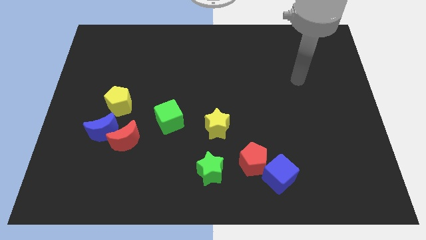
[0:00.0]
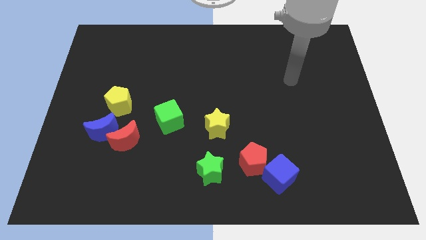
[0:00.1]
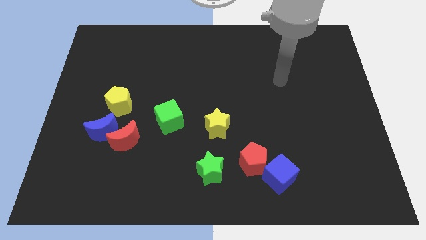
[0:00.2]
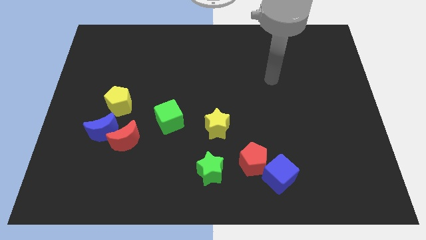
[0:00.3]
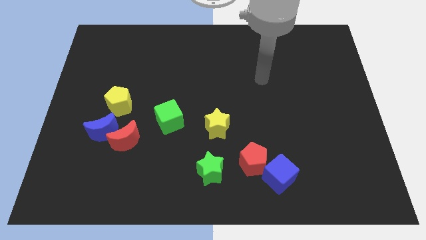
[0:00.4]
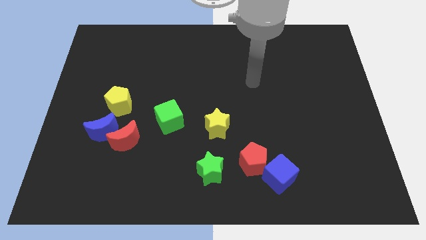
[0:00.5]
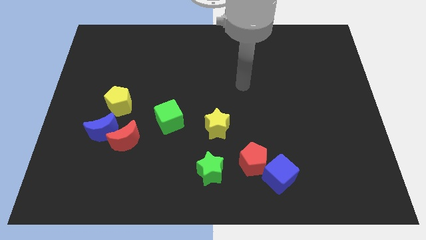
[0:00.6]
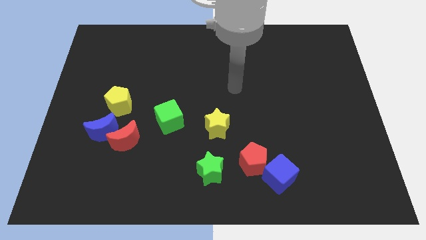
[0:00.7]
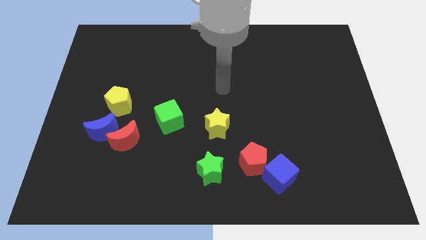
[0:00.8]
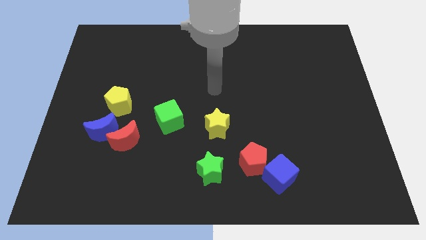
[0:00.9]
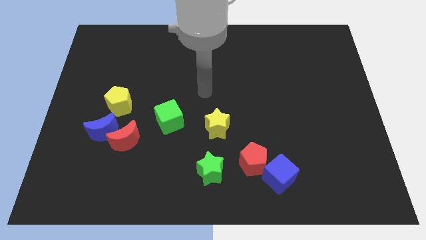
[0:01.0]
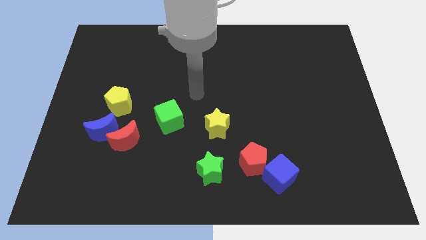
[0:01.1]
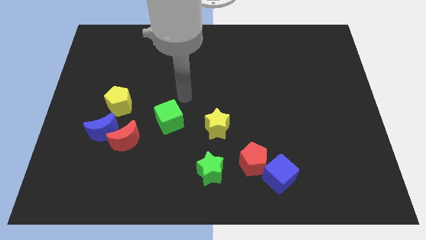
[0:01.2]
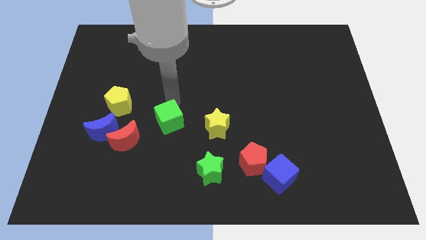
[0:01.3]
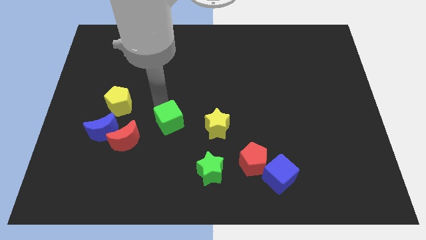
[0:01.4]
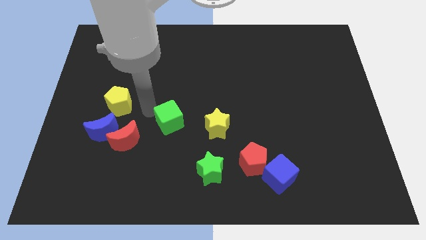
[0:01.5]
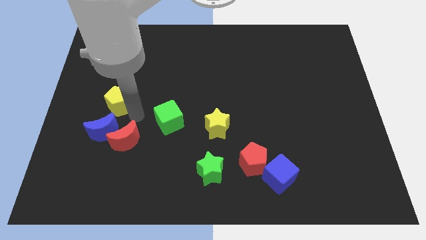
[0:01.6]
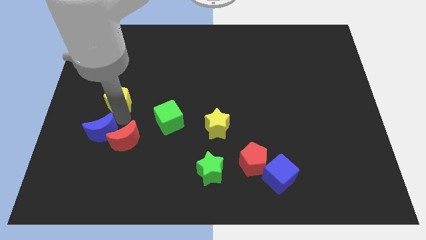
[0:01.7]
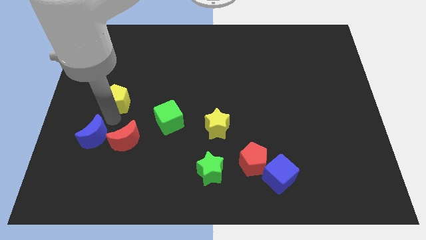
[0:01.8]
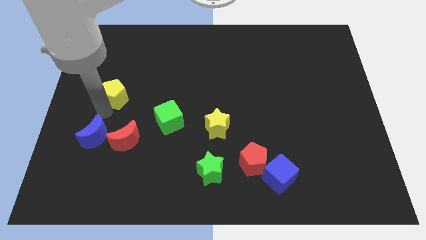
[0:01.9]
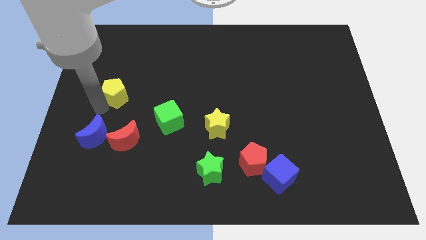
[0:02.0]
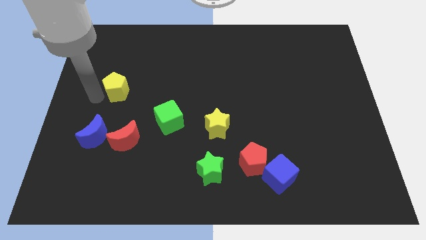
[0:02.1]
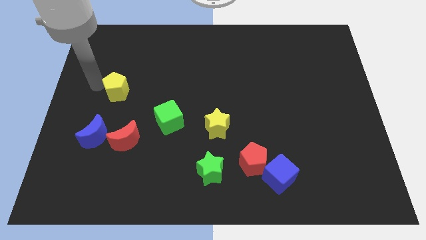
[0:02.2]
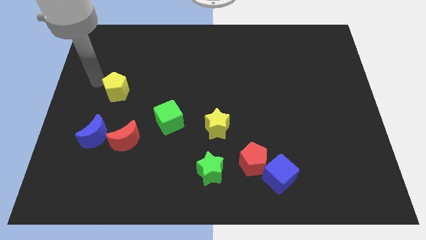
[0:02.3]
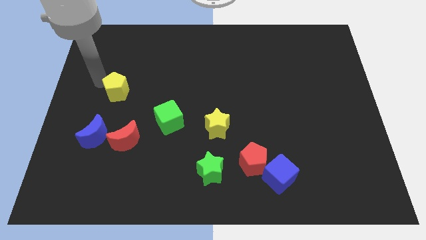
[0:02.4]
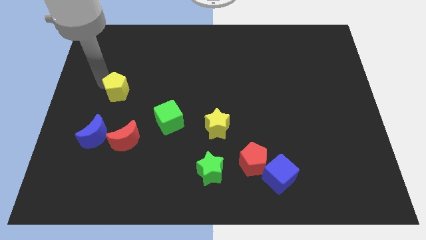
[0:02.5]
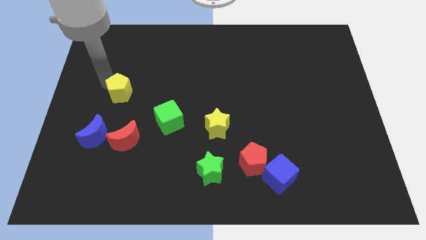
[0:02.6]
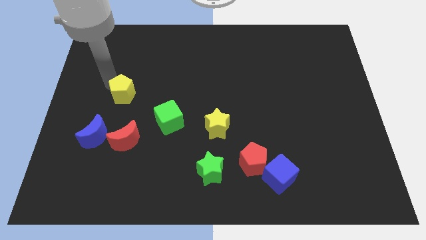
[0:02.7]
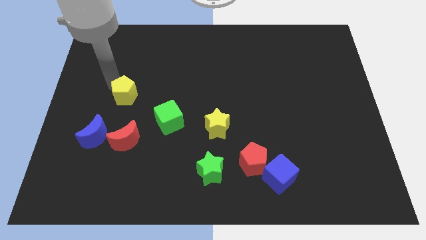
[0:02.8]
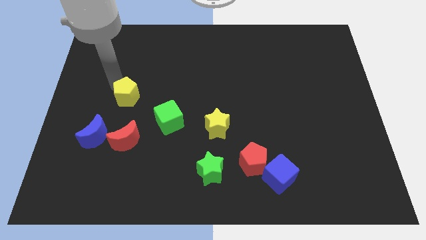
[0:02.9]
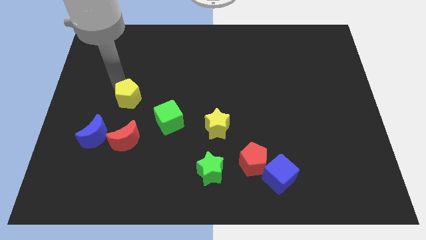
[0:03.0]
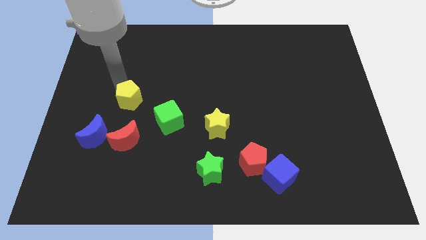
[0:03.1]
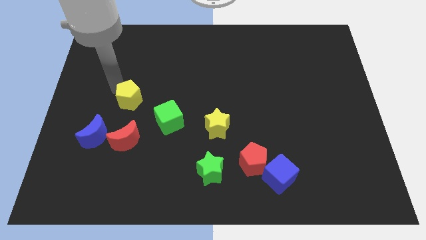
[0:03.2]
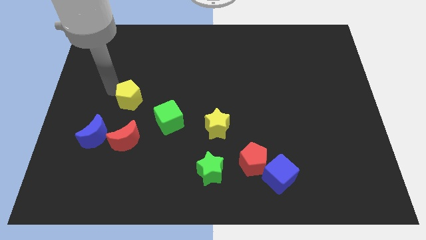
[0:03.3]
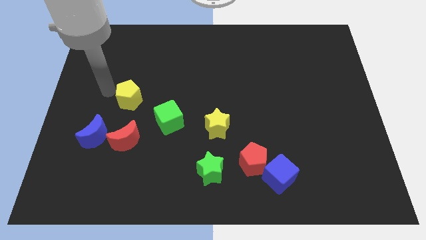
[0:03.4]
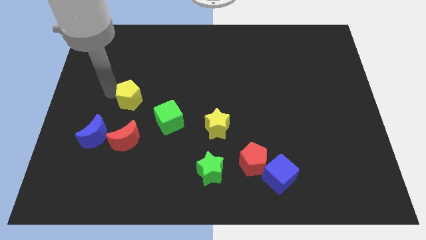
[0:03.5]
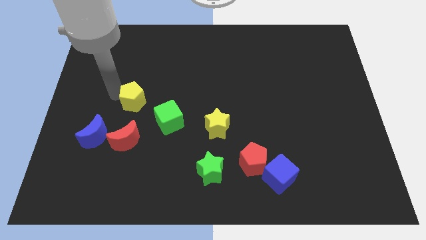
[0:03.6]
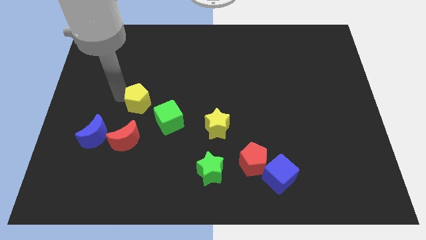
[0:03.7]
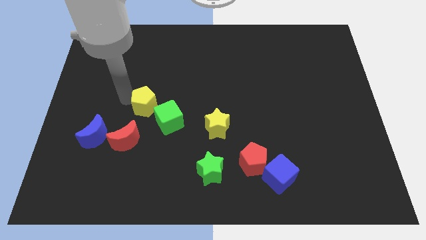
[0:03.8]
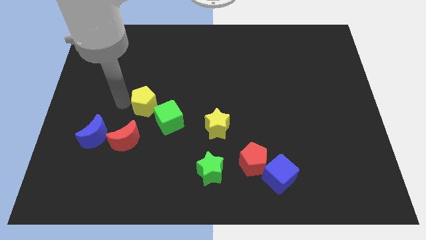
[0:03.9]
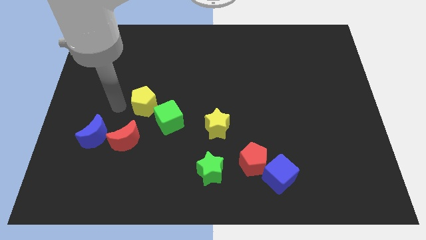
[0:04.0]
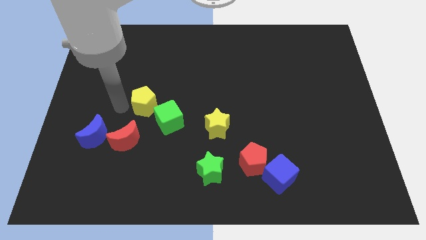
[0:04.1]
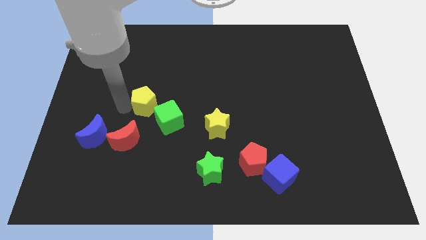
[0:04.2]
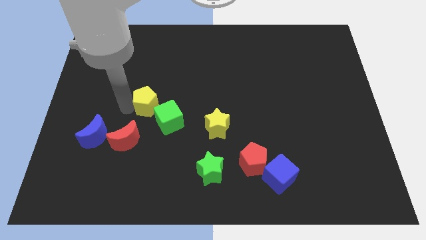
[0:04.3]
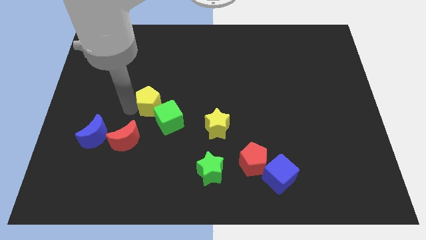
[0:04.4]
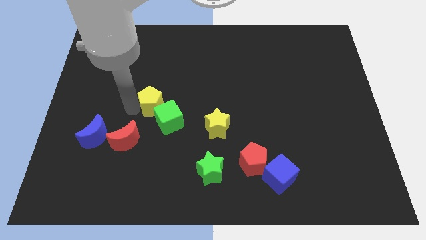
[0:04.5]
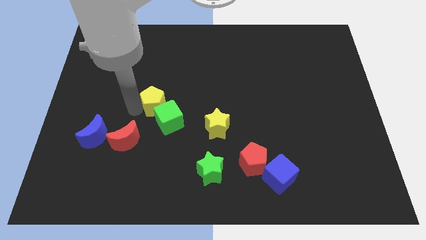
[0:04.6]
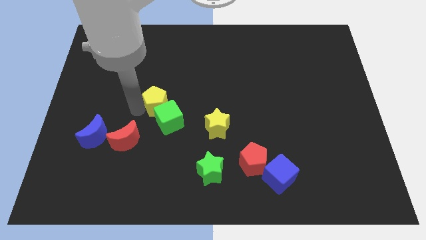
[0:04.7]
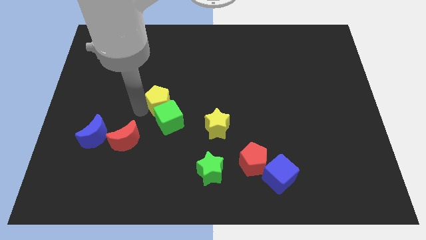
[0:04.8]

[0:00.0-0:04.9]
move the yellow pentagon to the center

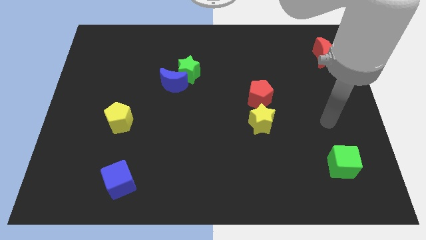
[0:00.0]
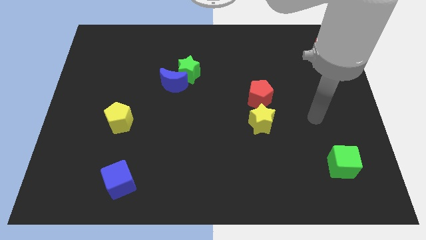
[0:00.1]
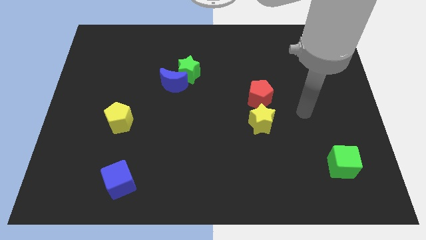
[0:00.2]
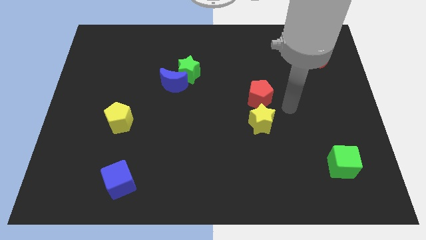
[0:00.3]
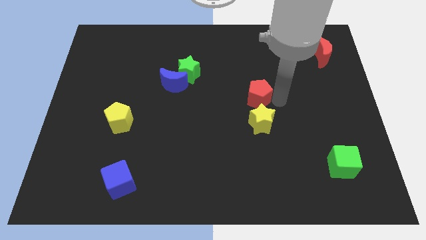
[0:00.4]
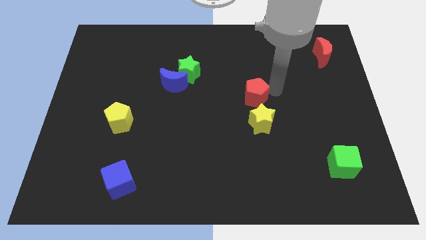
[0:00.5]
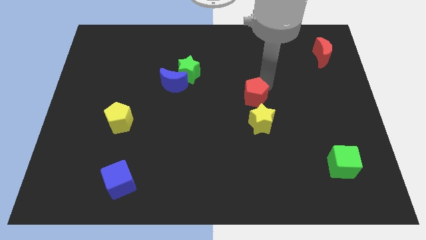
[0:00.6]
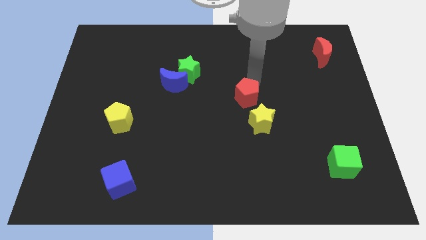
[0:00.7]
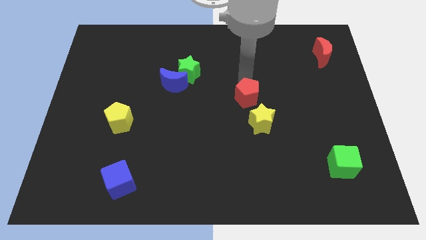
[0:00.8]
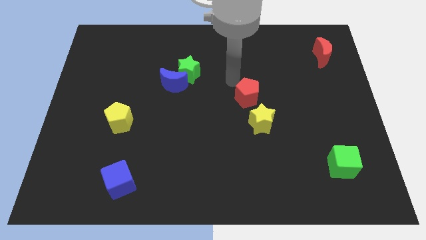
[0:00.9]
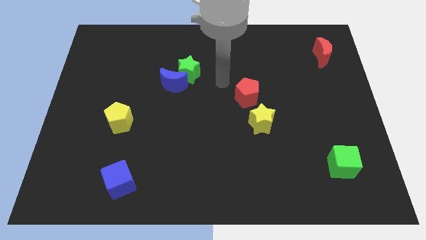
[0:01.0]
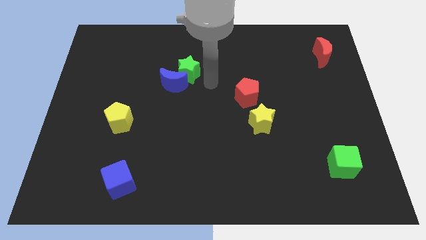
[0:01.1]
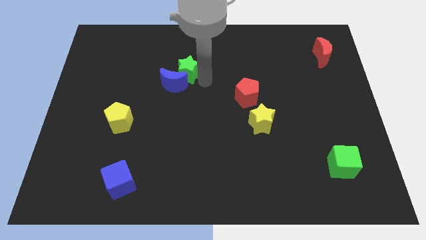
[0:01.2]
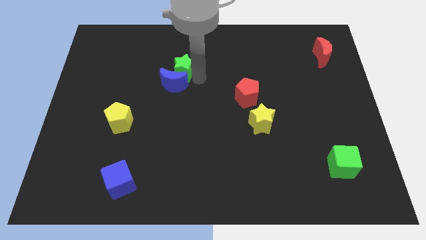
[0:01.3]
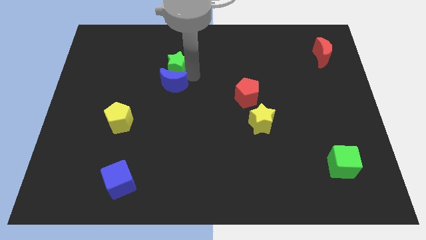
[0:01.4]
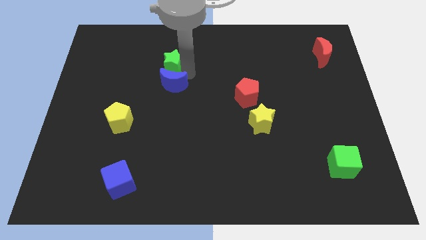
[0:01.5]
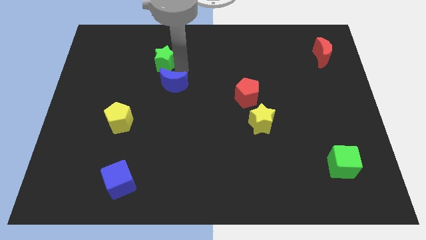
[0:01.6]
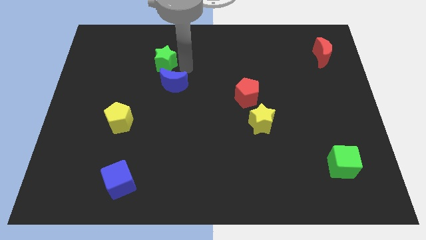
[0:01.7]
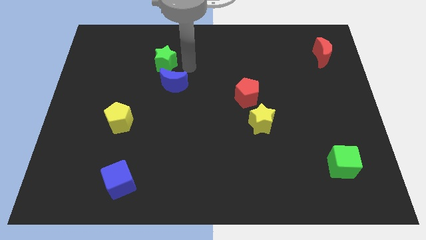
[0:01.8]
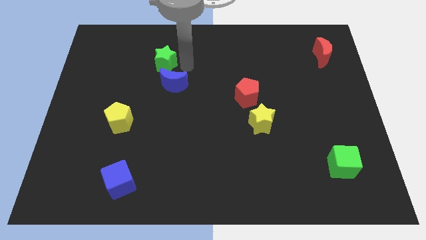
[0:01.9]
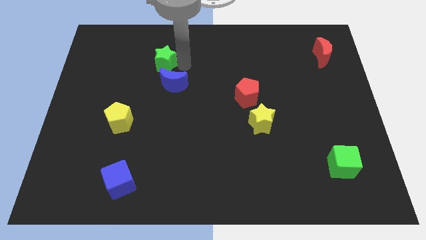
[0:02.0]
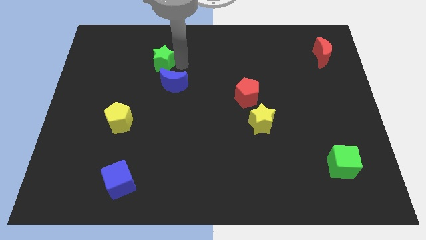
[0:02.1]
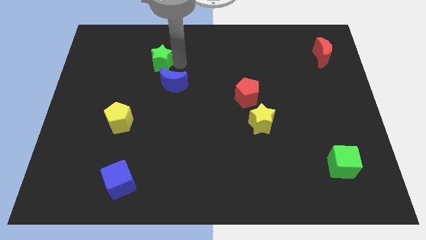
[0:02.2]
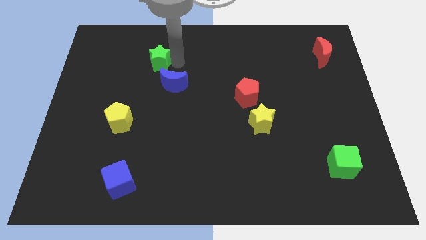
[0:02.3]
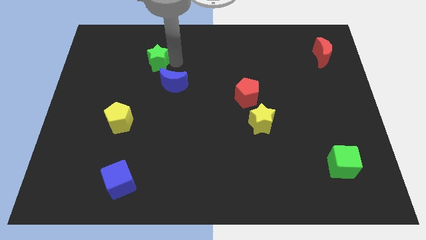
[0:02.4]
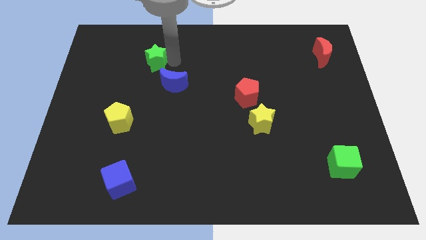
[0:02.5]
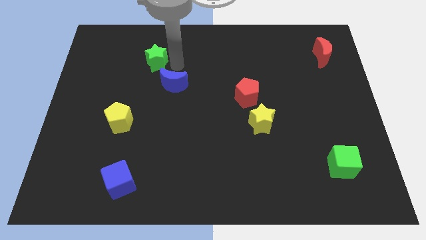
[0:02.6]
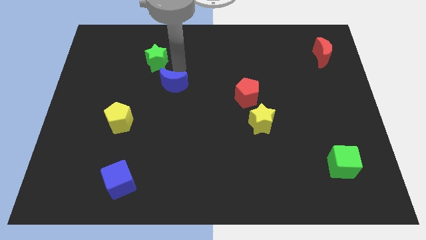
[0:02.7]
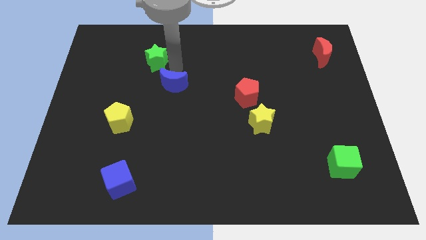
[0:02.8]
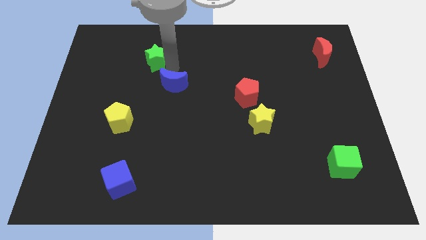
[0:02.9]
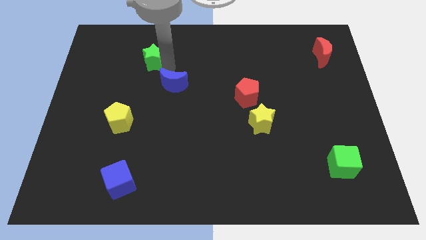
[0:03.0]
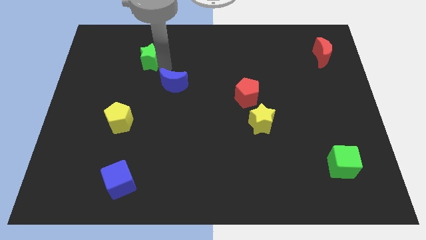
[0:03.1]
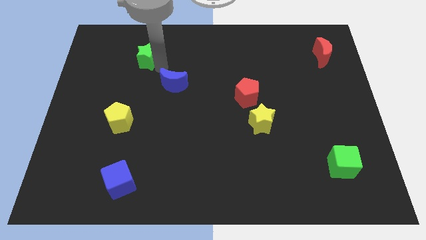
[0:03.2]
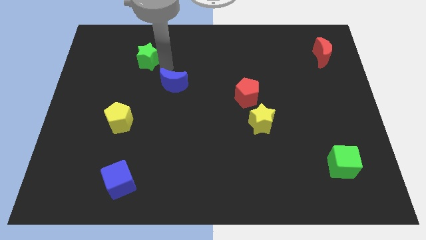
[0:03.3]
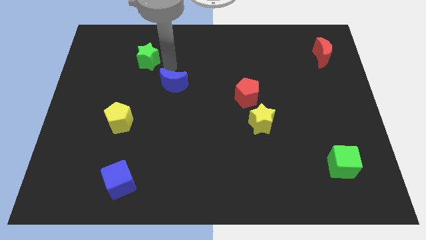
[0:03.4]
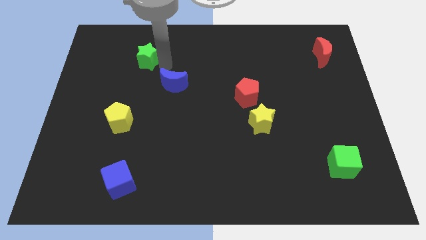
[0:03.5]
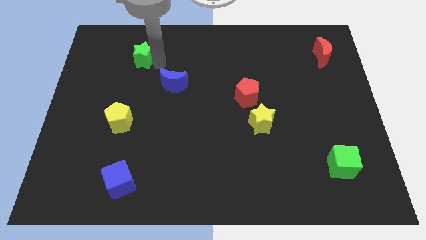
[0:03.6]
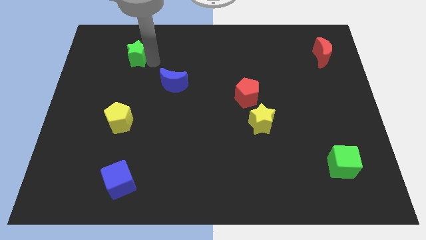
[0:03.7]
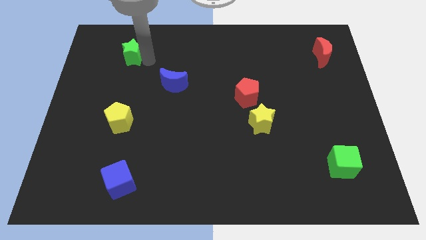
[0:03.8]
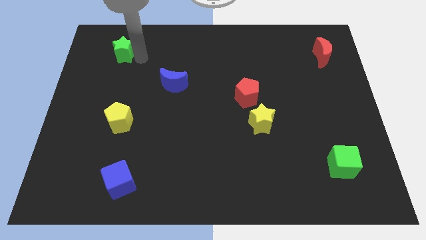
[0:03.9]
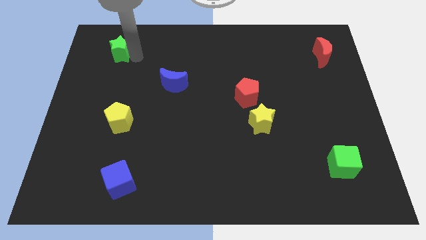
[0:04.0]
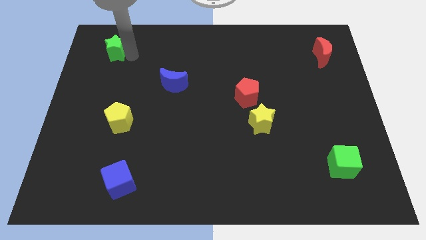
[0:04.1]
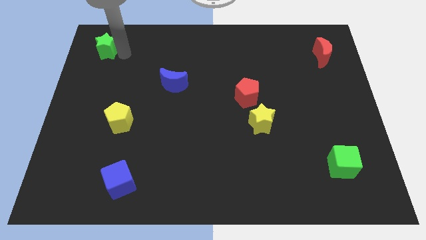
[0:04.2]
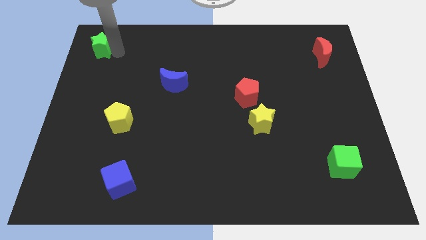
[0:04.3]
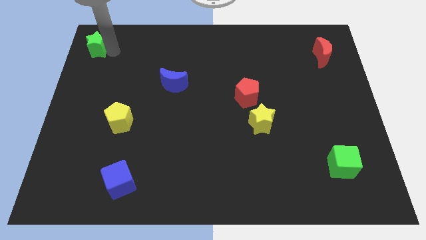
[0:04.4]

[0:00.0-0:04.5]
slide the green star to the upper left corner
